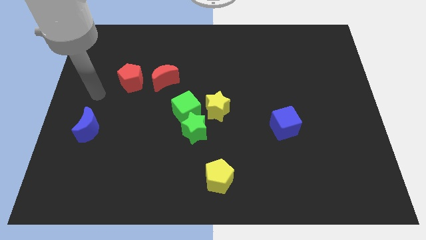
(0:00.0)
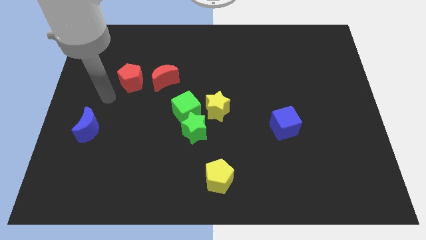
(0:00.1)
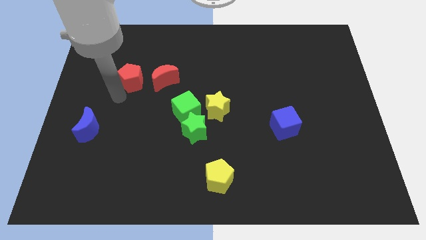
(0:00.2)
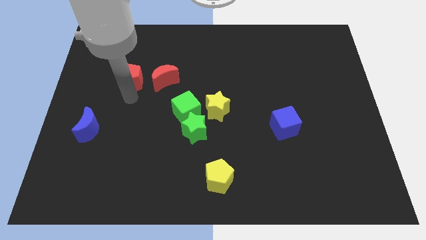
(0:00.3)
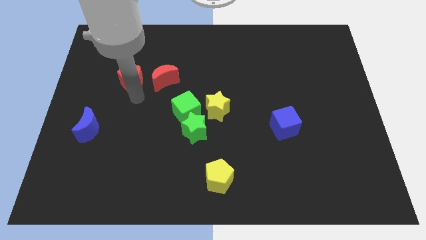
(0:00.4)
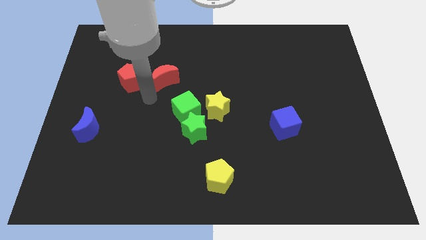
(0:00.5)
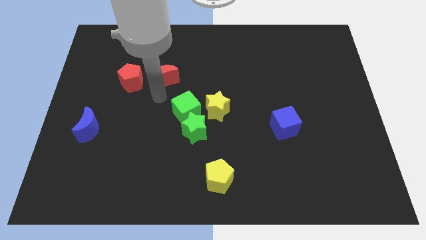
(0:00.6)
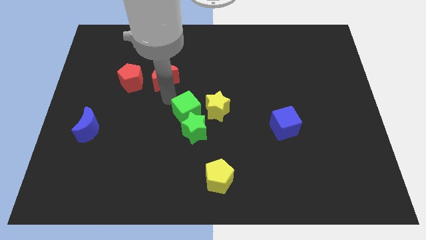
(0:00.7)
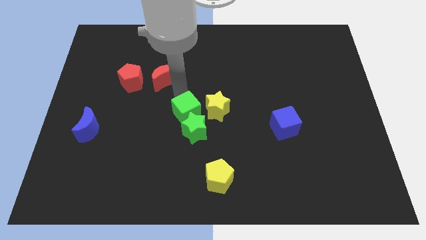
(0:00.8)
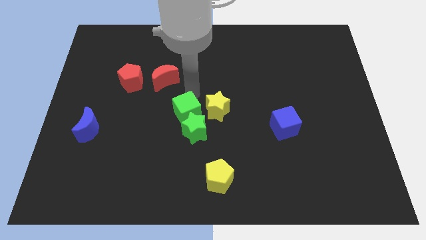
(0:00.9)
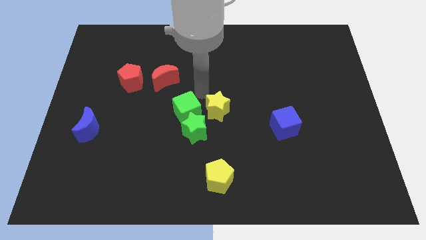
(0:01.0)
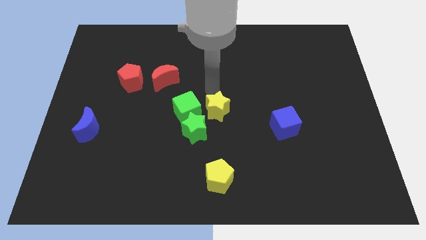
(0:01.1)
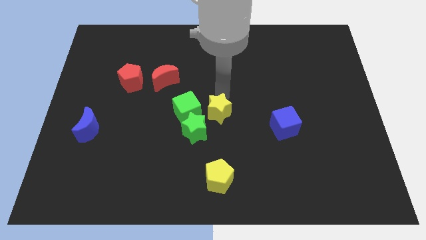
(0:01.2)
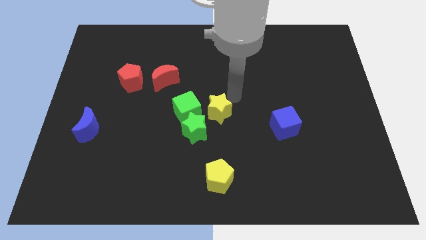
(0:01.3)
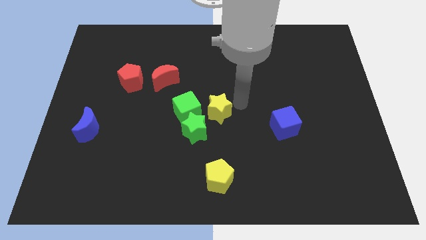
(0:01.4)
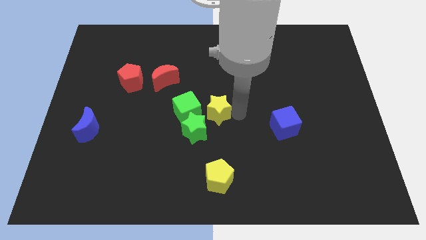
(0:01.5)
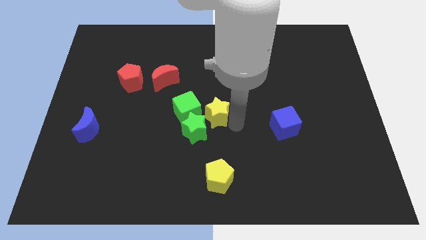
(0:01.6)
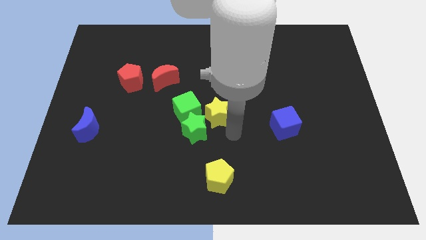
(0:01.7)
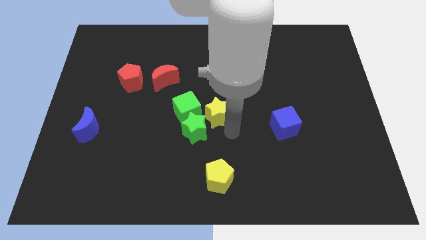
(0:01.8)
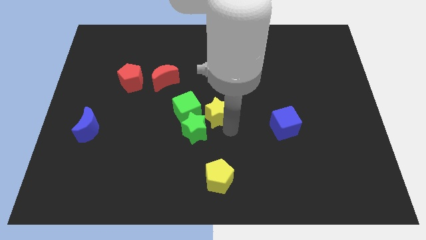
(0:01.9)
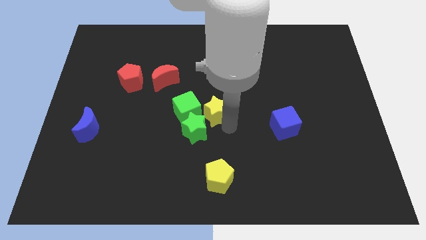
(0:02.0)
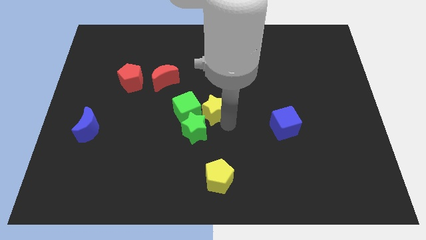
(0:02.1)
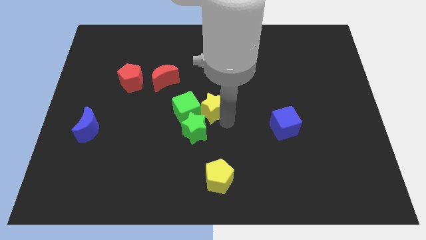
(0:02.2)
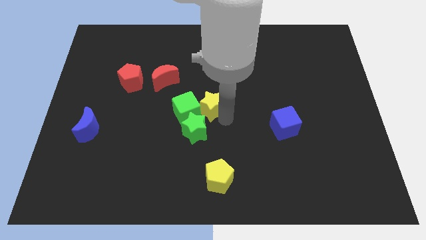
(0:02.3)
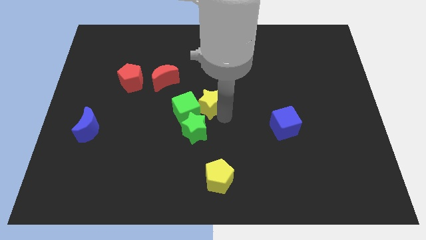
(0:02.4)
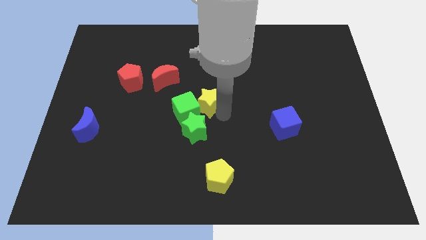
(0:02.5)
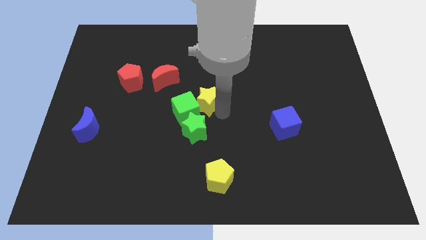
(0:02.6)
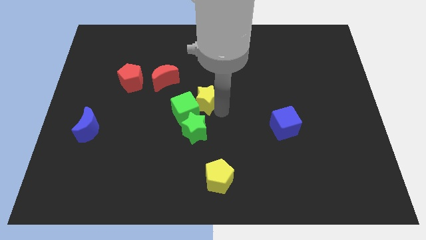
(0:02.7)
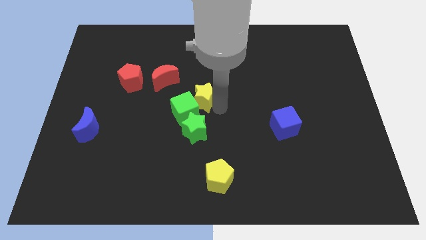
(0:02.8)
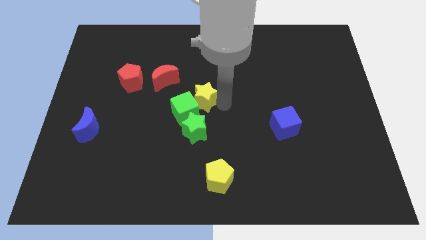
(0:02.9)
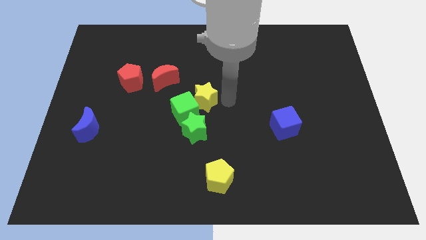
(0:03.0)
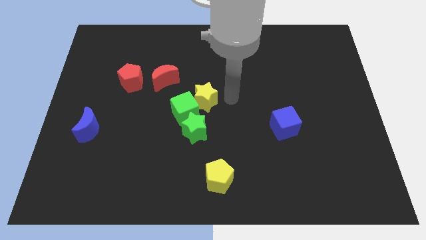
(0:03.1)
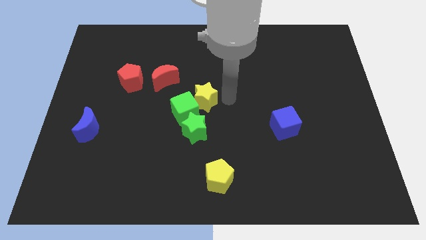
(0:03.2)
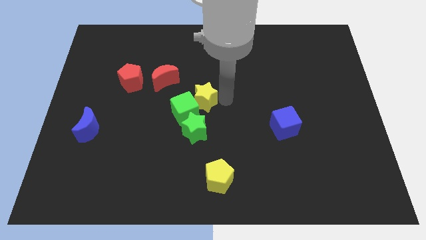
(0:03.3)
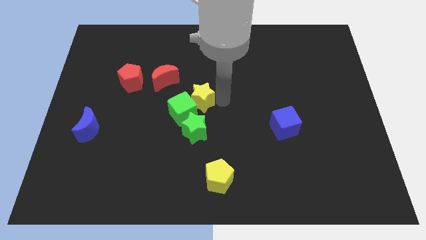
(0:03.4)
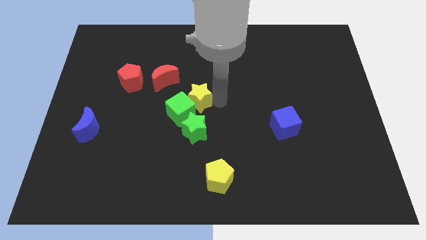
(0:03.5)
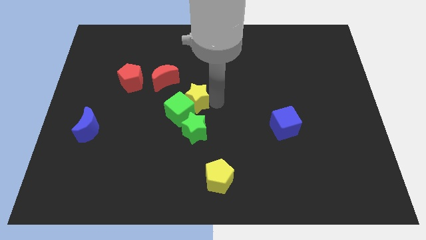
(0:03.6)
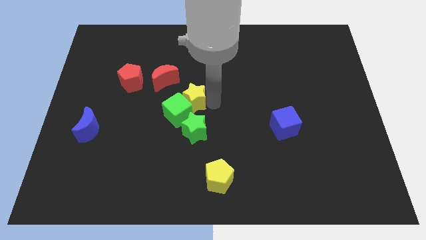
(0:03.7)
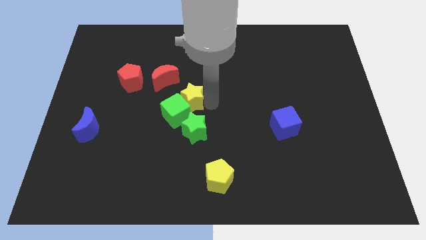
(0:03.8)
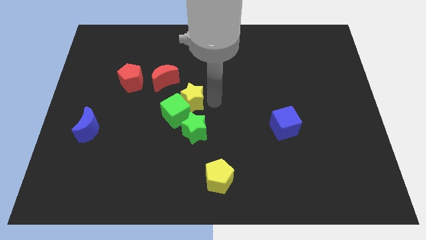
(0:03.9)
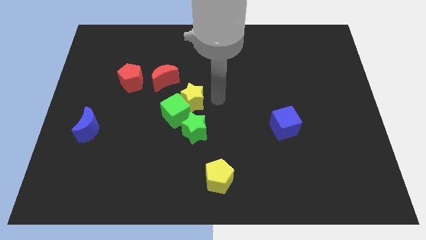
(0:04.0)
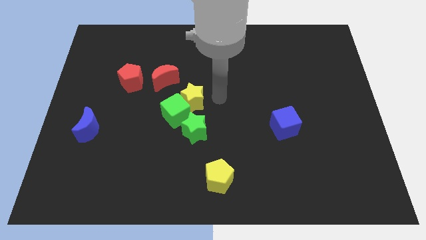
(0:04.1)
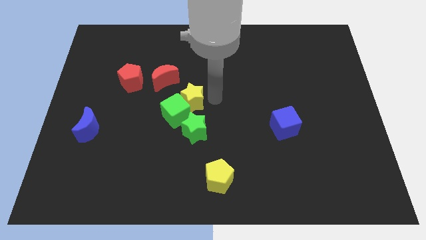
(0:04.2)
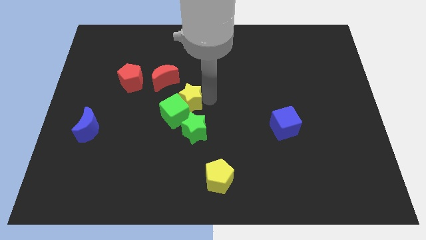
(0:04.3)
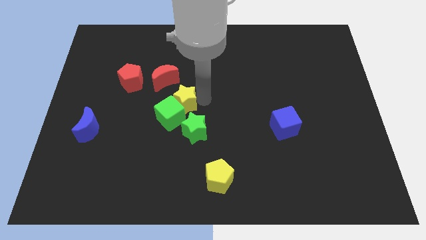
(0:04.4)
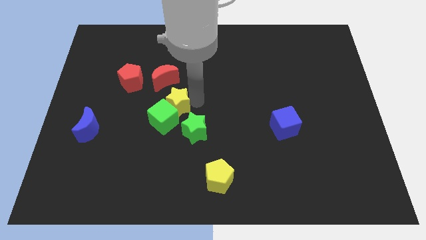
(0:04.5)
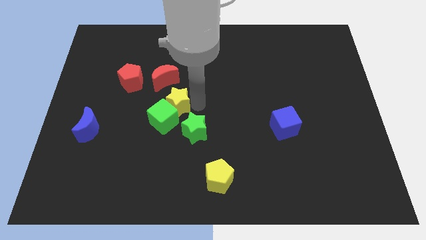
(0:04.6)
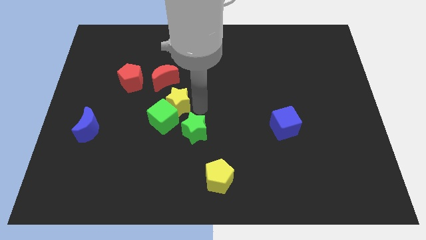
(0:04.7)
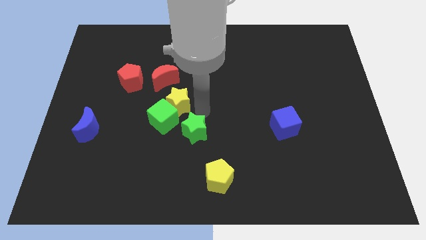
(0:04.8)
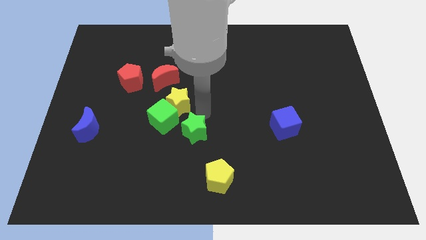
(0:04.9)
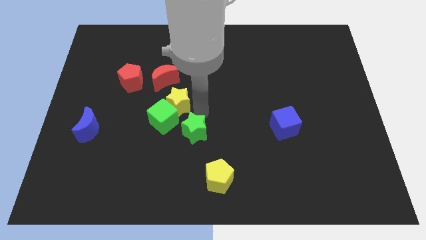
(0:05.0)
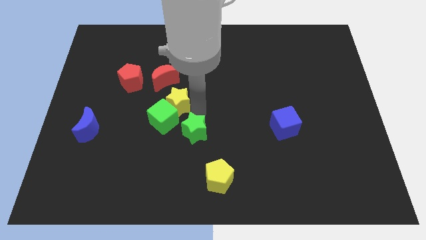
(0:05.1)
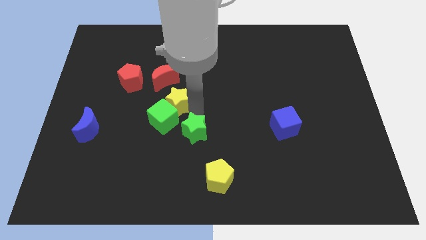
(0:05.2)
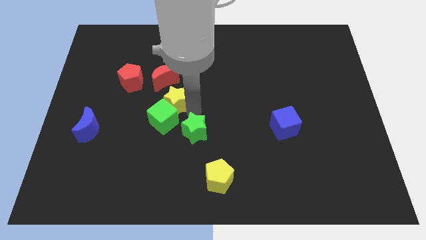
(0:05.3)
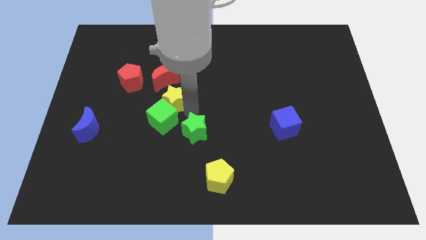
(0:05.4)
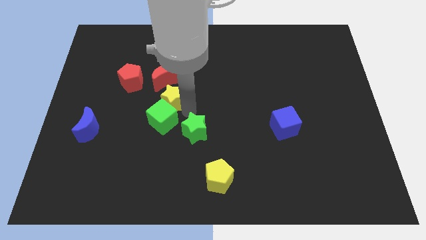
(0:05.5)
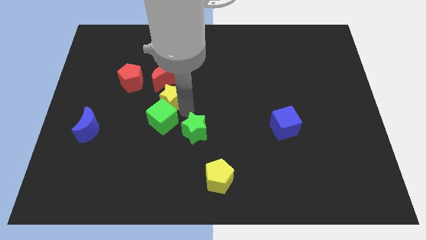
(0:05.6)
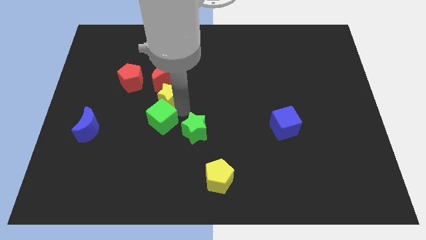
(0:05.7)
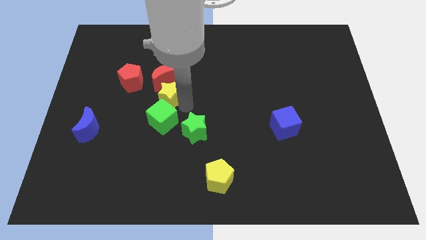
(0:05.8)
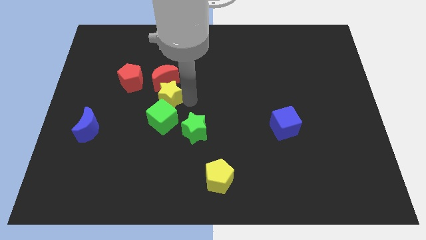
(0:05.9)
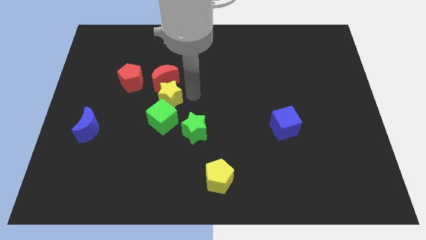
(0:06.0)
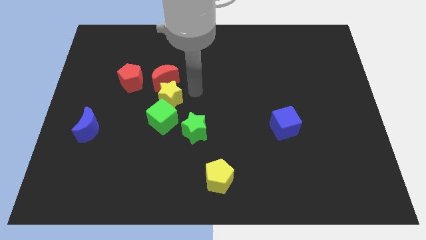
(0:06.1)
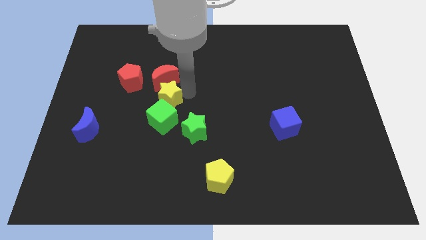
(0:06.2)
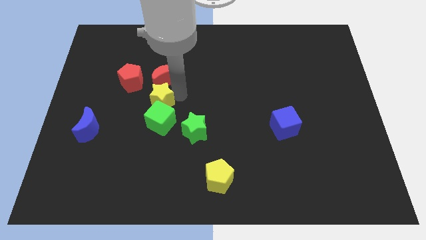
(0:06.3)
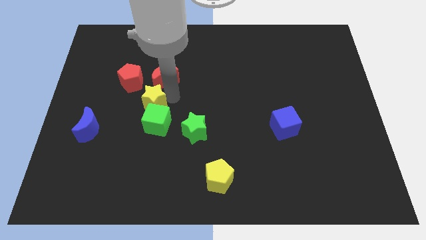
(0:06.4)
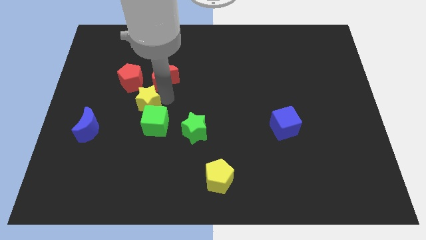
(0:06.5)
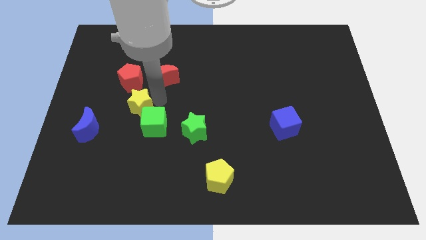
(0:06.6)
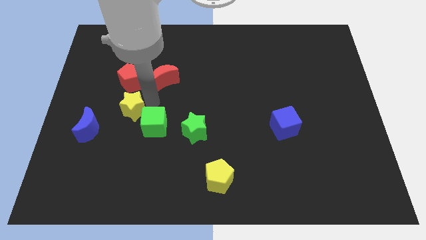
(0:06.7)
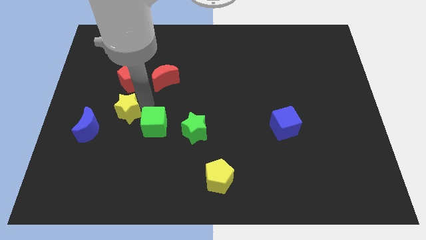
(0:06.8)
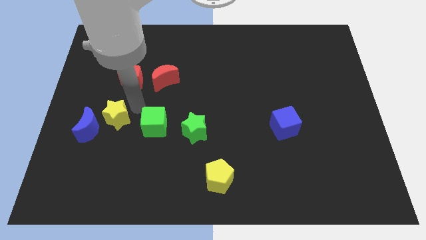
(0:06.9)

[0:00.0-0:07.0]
put the yellow star next to the blue moon

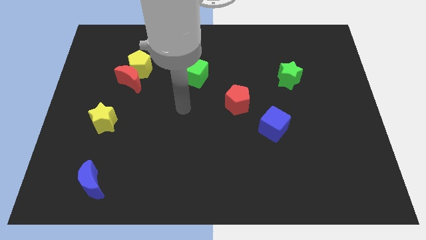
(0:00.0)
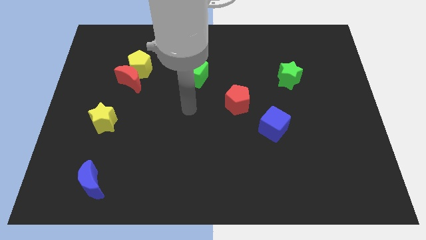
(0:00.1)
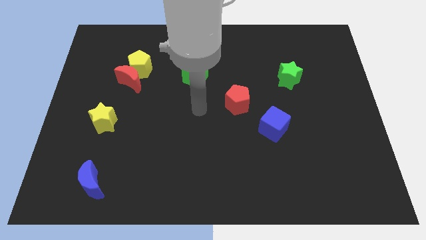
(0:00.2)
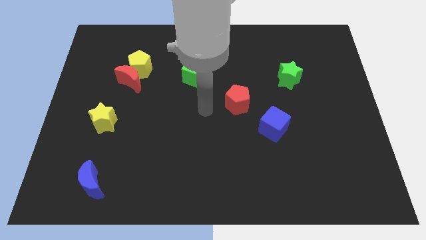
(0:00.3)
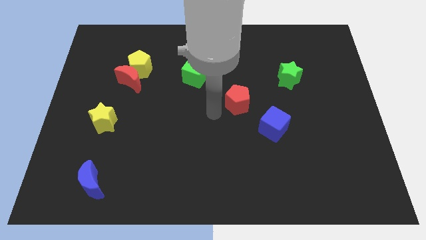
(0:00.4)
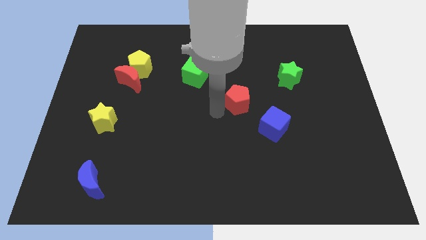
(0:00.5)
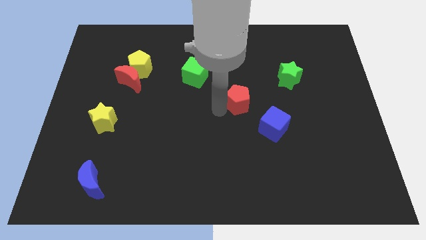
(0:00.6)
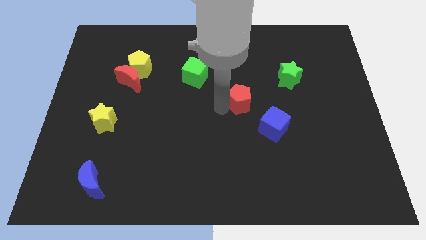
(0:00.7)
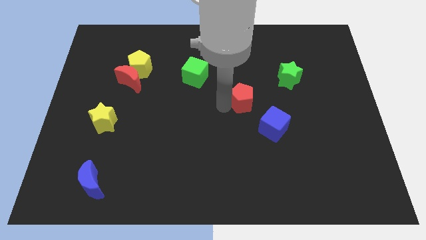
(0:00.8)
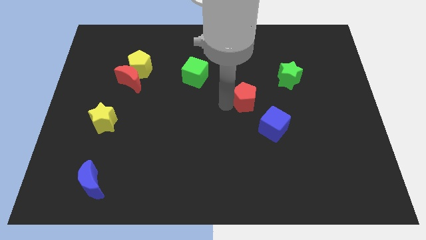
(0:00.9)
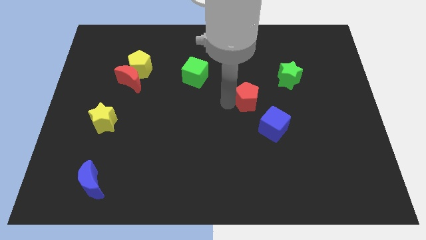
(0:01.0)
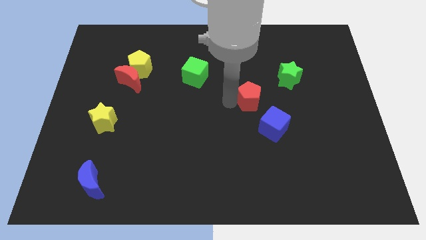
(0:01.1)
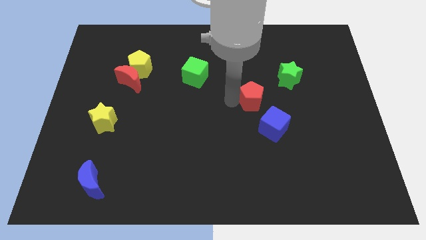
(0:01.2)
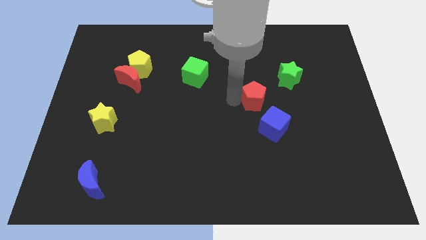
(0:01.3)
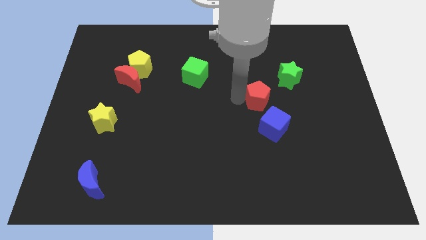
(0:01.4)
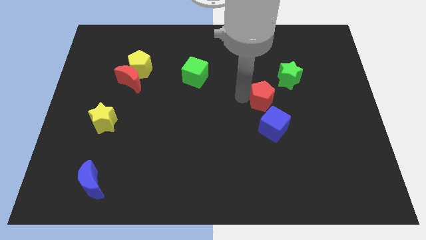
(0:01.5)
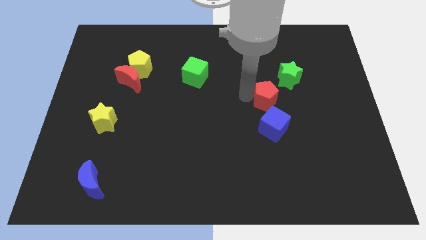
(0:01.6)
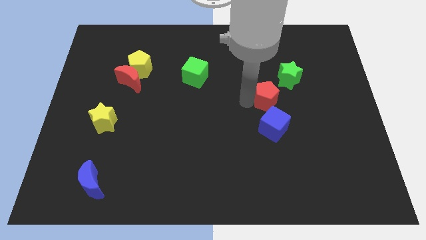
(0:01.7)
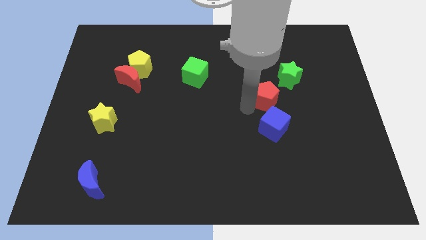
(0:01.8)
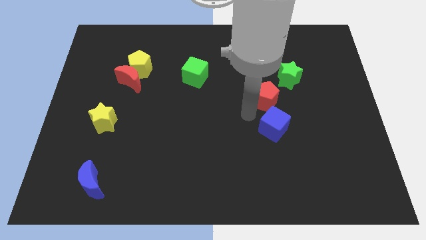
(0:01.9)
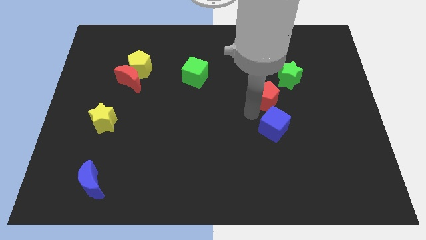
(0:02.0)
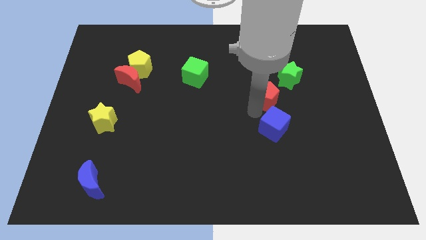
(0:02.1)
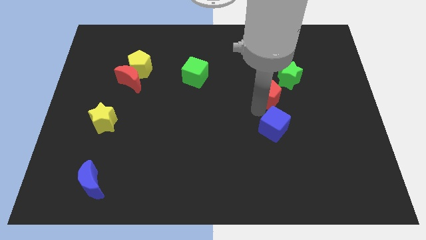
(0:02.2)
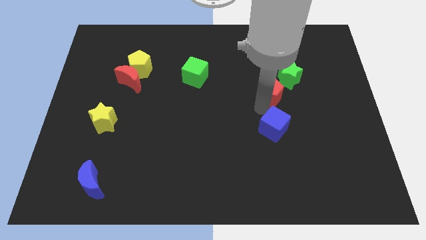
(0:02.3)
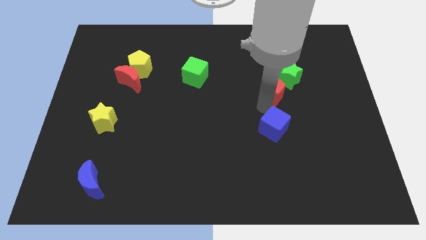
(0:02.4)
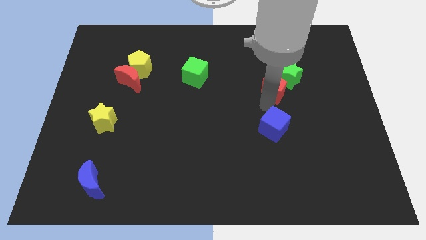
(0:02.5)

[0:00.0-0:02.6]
move the red pentagon close to the green star
